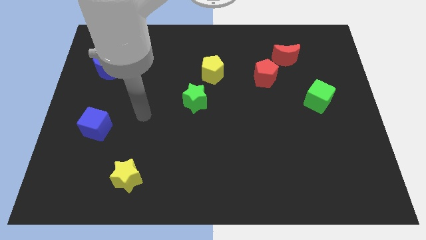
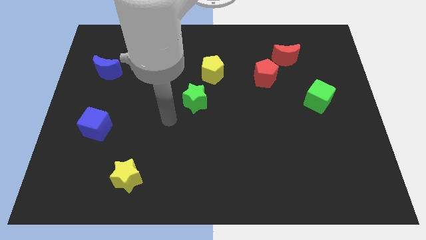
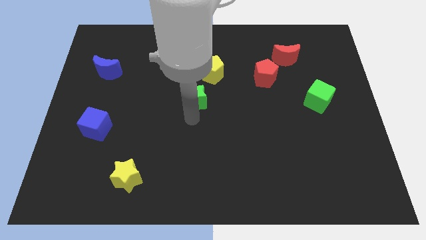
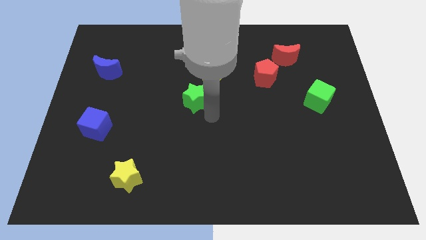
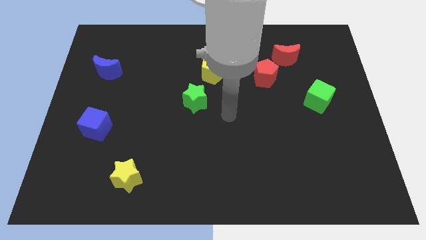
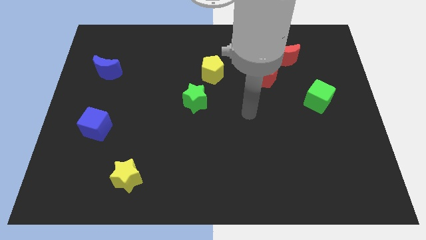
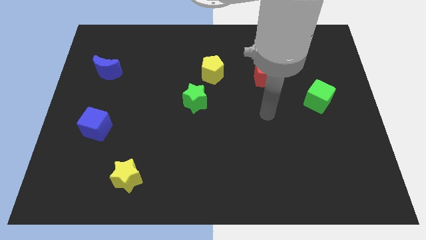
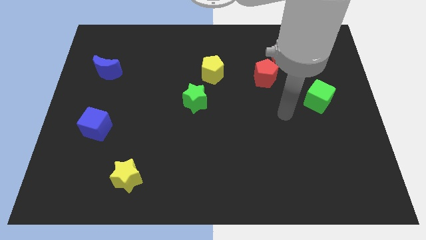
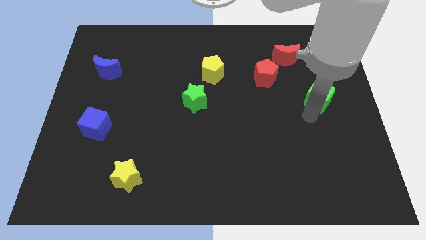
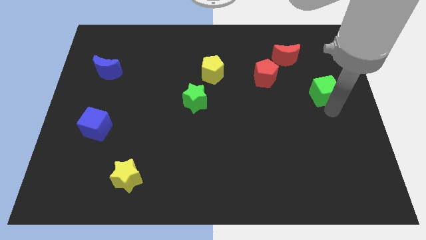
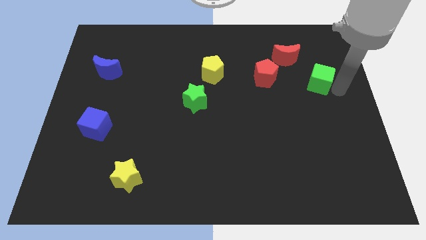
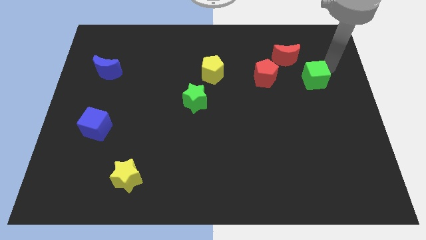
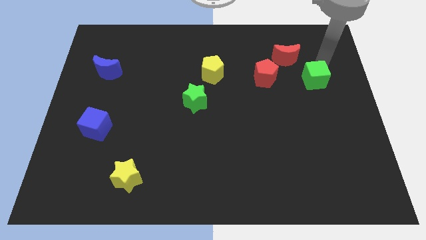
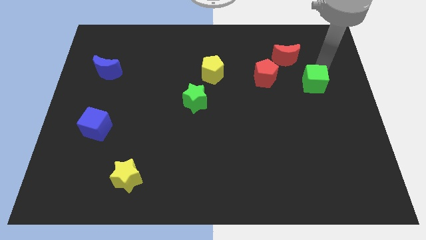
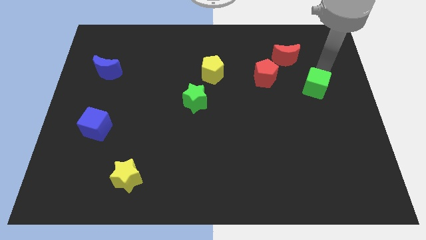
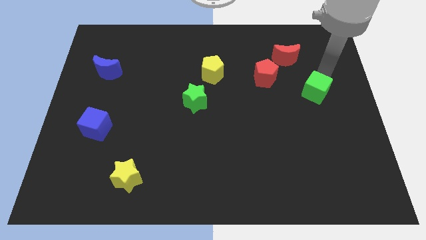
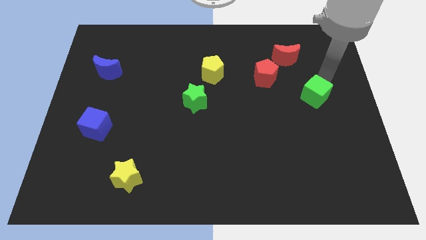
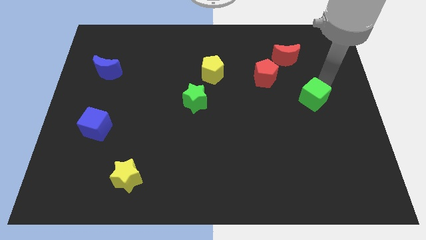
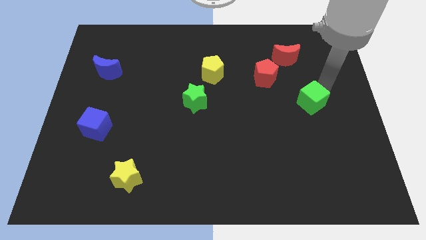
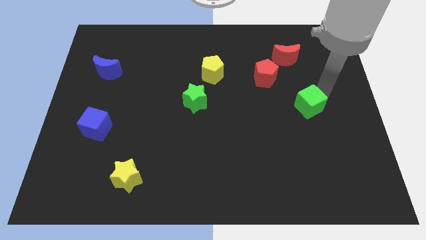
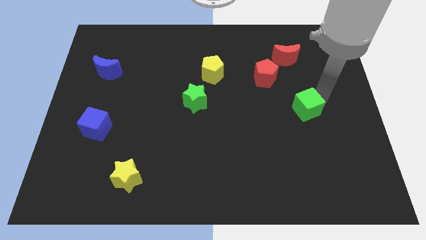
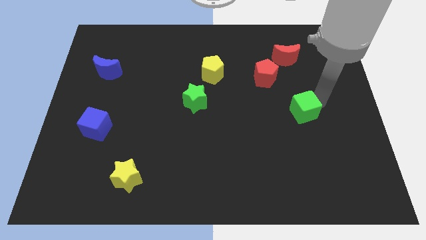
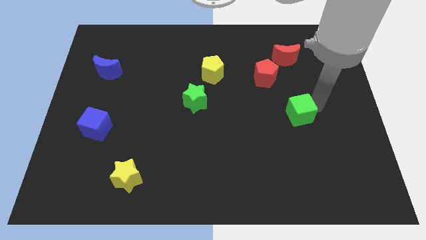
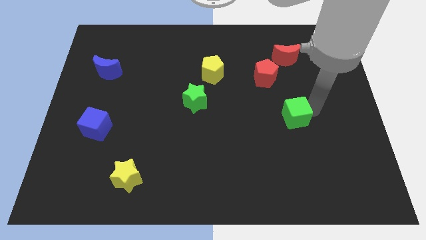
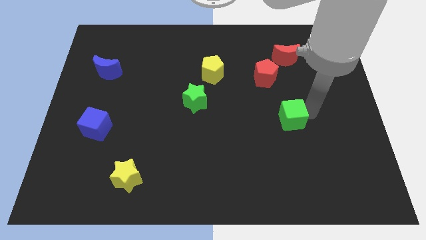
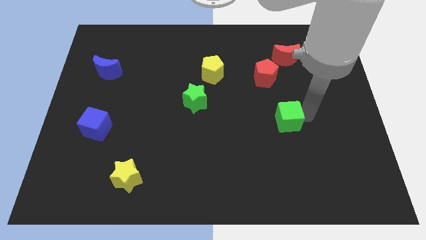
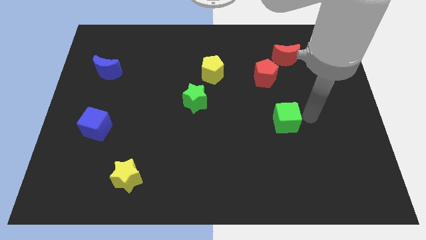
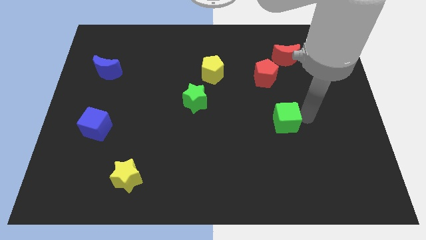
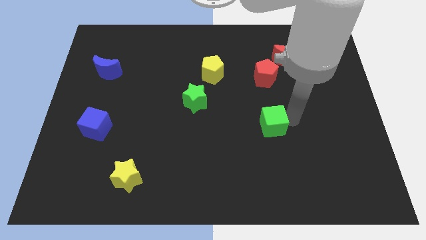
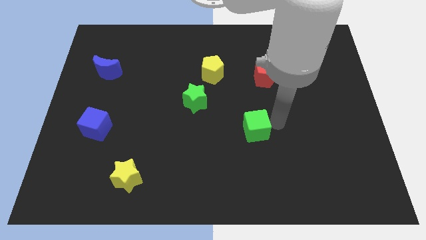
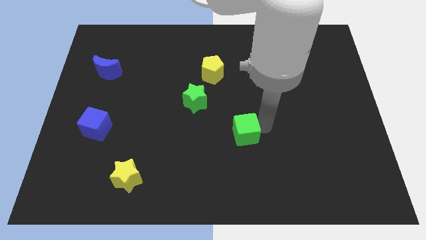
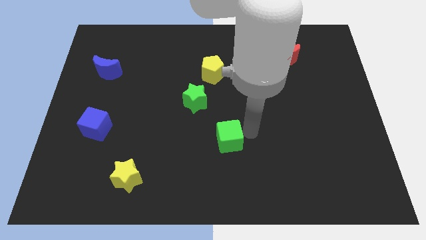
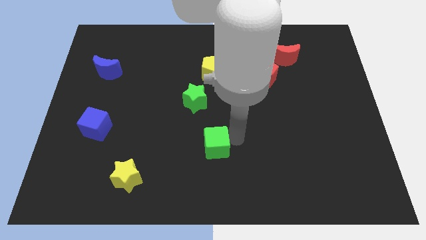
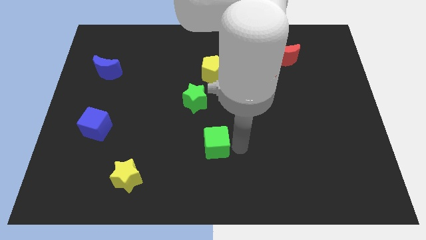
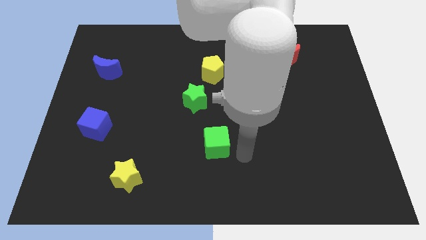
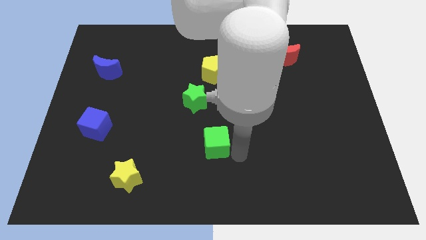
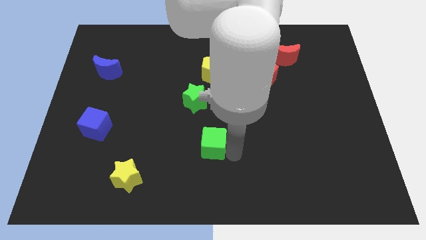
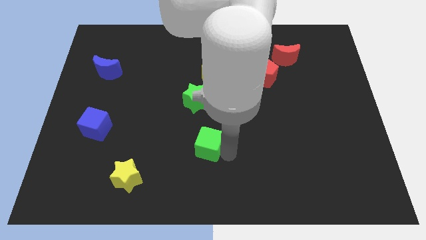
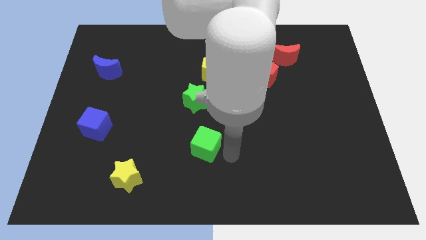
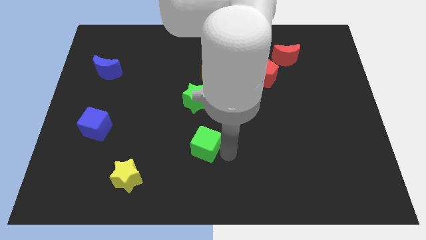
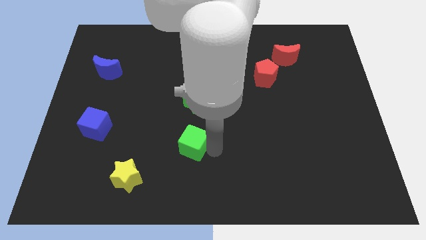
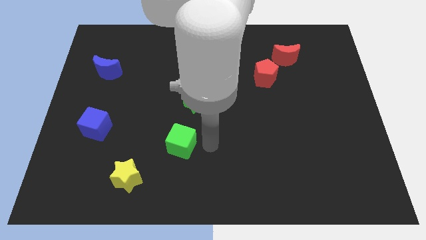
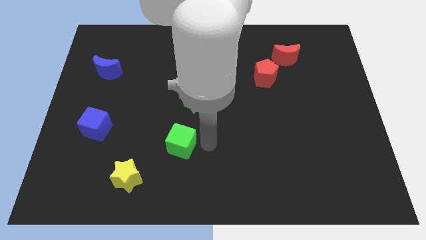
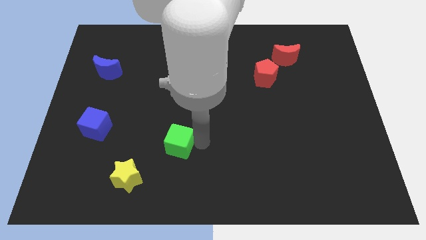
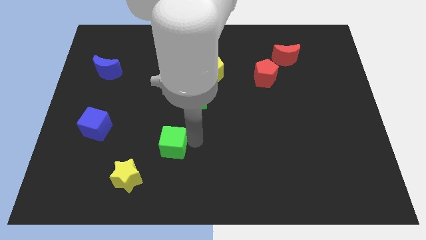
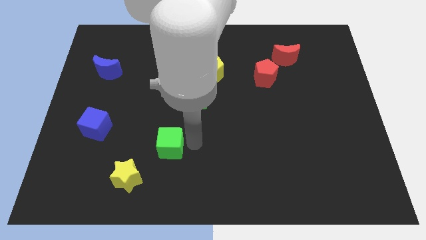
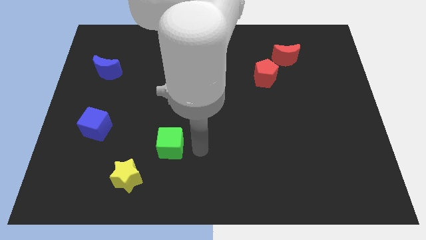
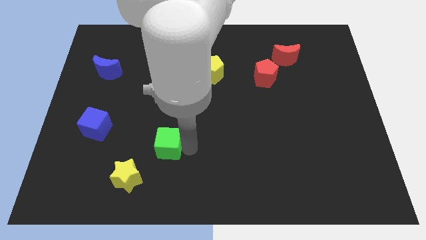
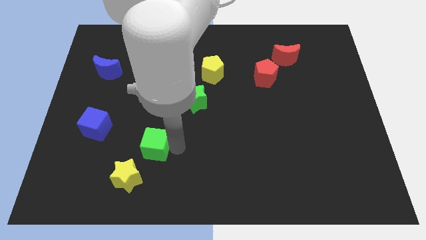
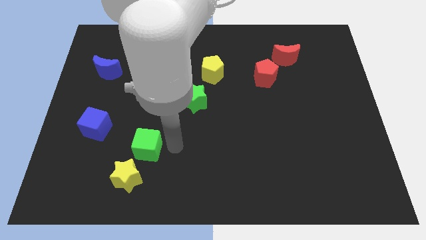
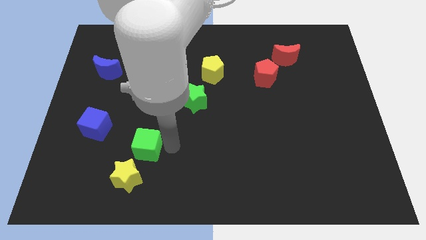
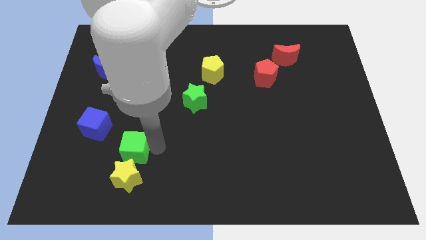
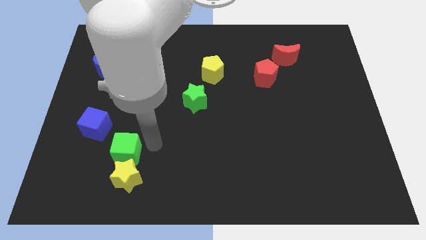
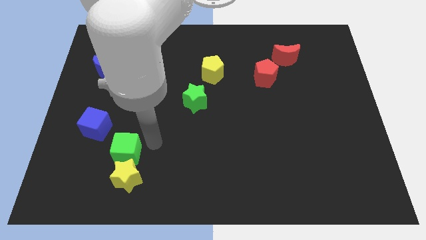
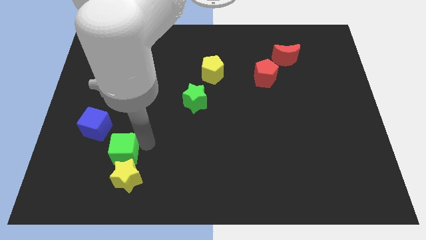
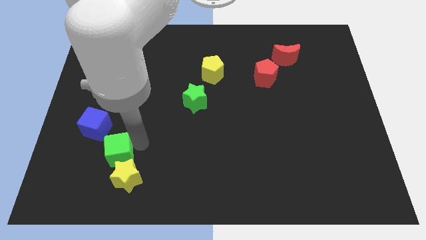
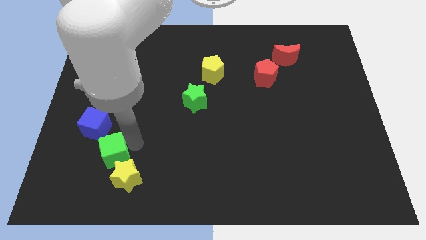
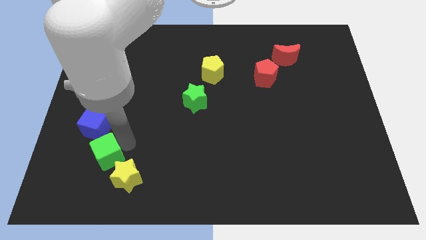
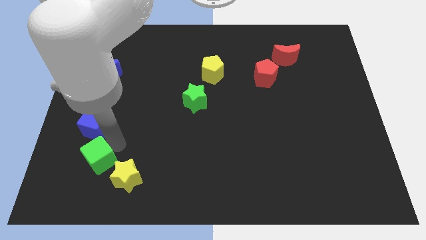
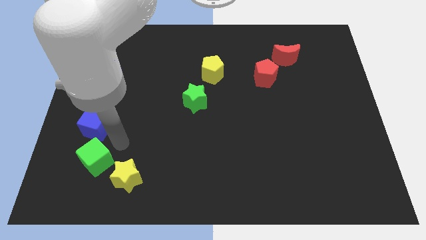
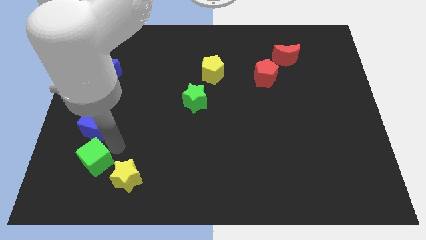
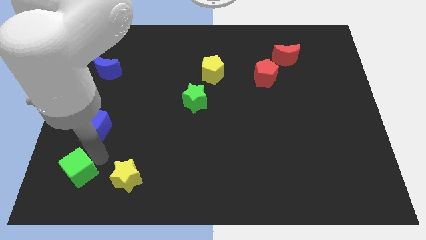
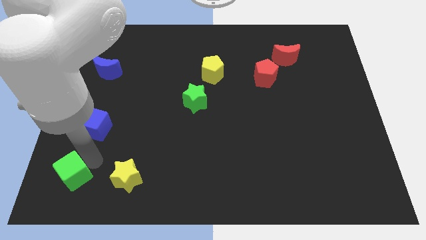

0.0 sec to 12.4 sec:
move the green cube to the bottom left corner
